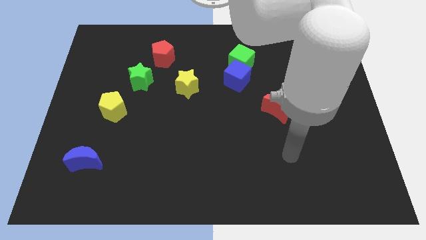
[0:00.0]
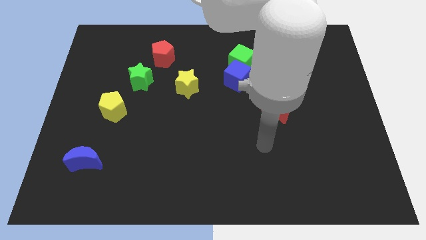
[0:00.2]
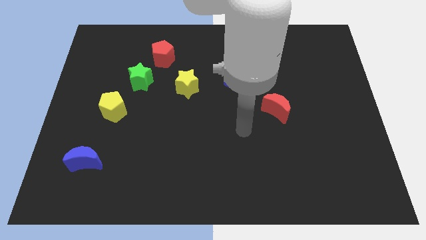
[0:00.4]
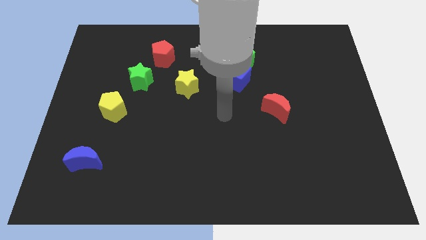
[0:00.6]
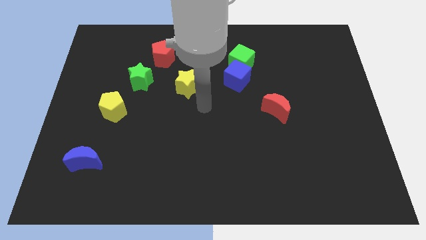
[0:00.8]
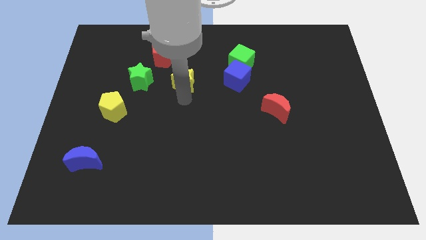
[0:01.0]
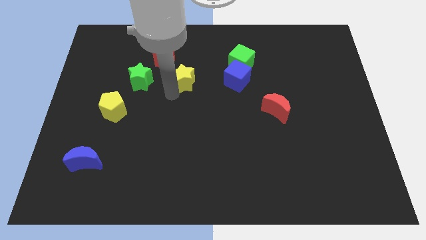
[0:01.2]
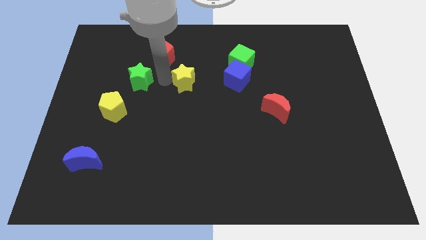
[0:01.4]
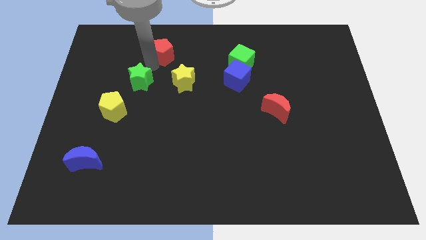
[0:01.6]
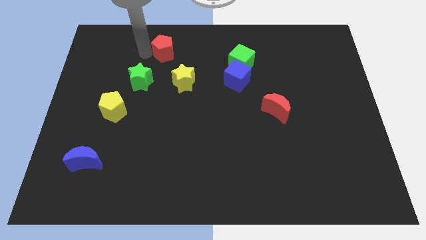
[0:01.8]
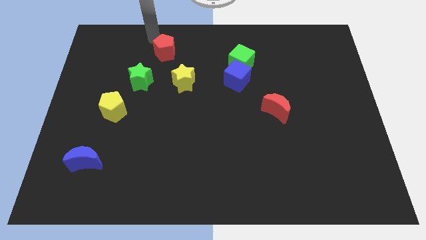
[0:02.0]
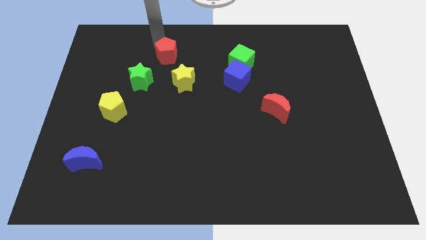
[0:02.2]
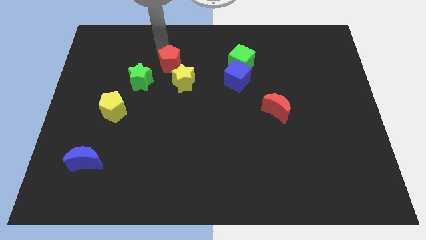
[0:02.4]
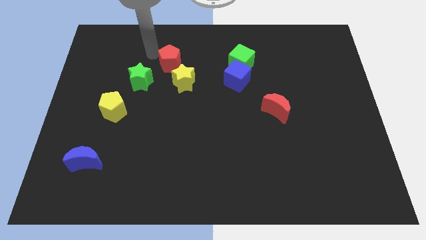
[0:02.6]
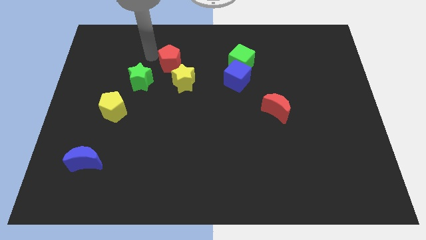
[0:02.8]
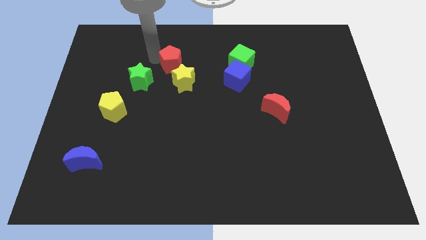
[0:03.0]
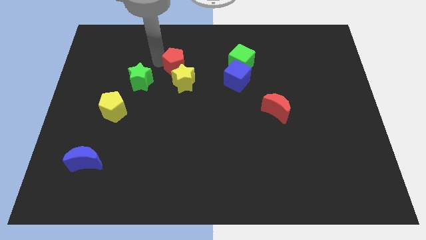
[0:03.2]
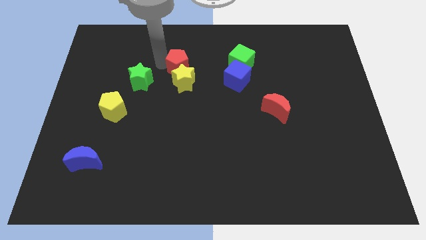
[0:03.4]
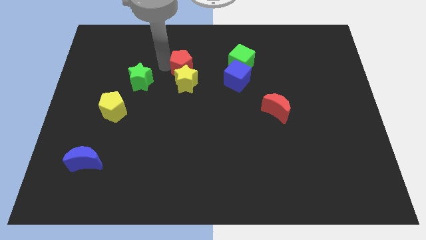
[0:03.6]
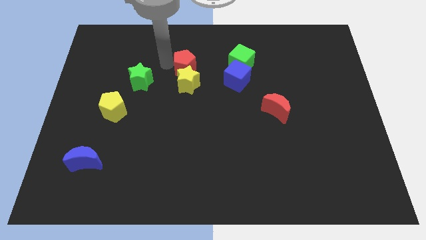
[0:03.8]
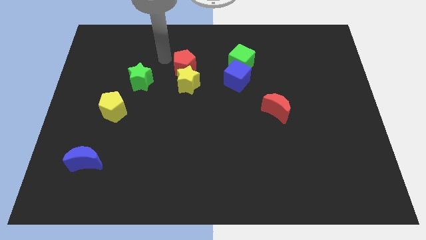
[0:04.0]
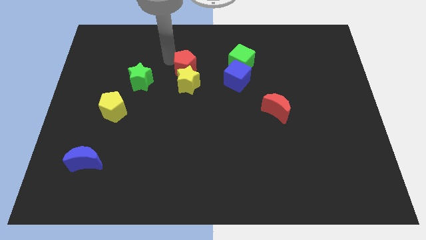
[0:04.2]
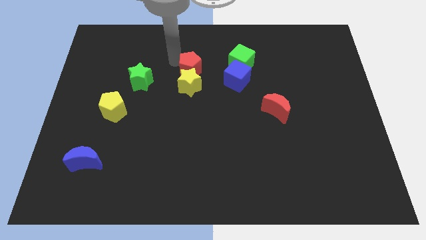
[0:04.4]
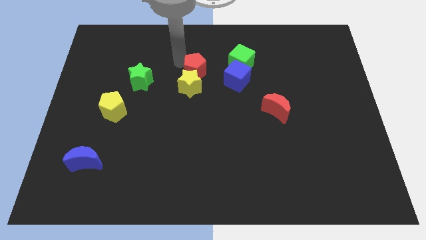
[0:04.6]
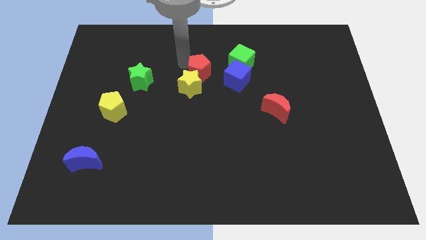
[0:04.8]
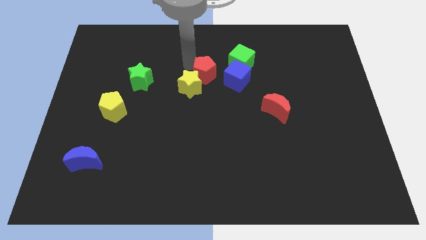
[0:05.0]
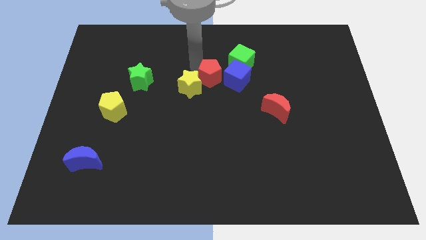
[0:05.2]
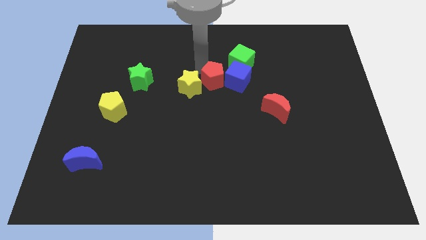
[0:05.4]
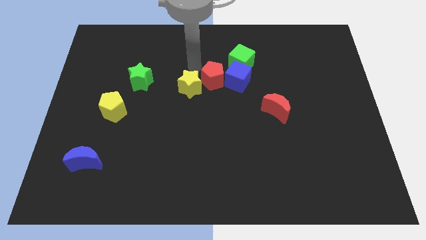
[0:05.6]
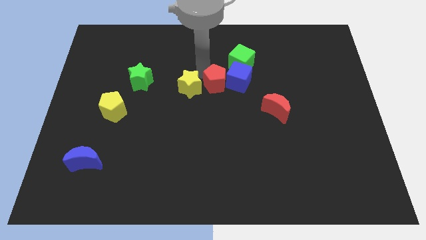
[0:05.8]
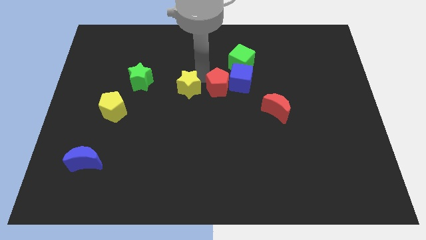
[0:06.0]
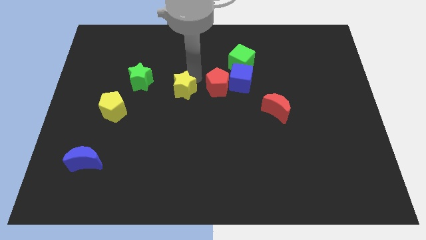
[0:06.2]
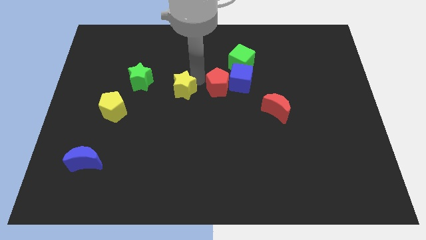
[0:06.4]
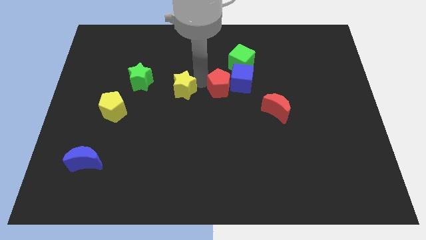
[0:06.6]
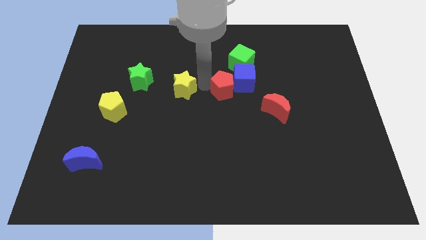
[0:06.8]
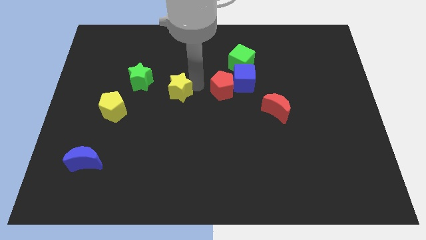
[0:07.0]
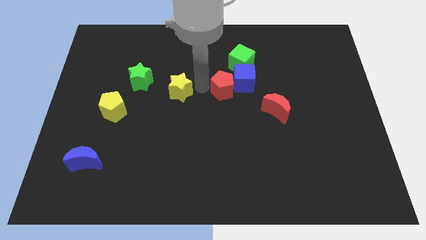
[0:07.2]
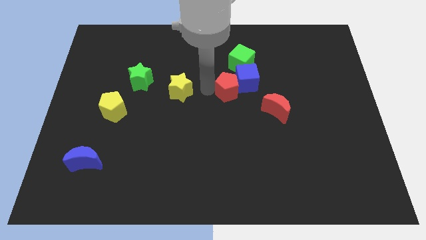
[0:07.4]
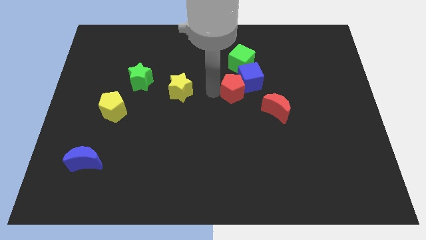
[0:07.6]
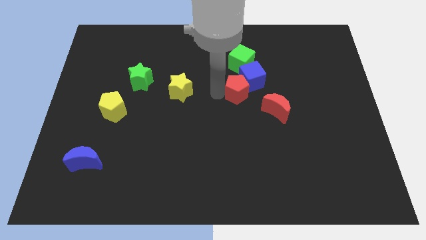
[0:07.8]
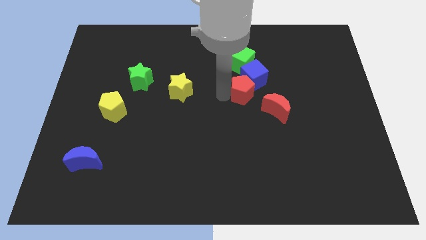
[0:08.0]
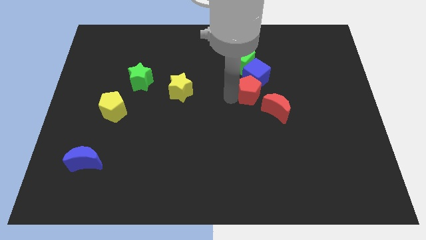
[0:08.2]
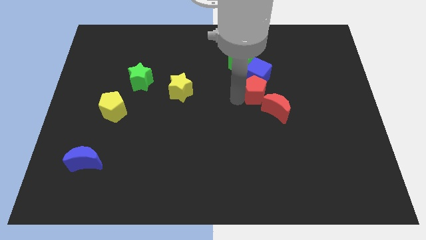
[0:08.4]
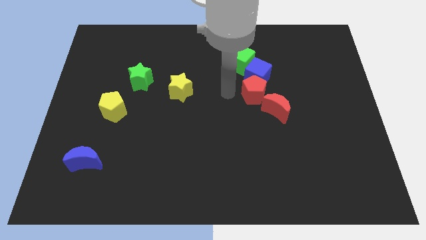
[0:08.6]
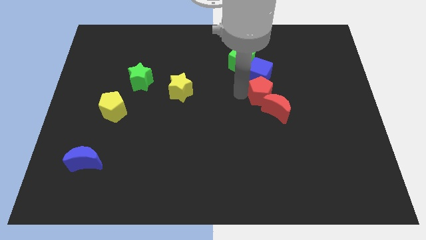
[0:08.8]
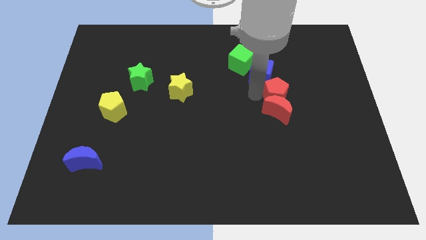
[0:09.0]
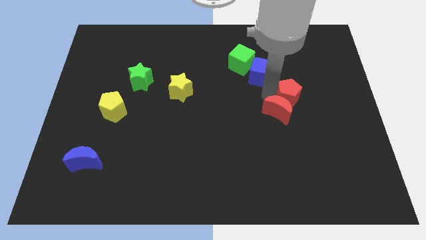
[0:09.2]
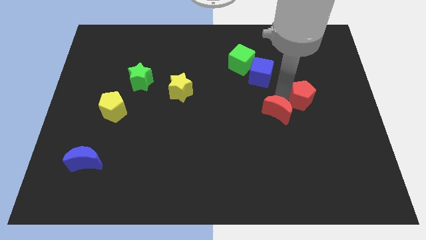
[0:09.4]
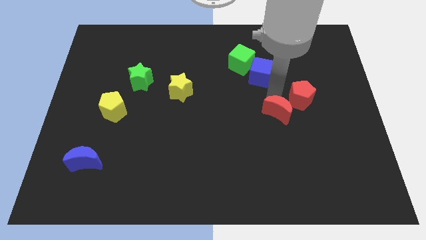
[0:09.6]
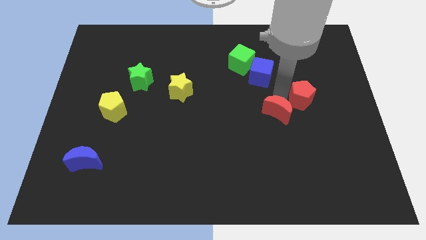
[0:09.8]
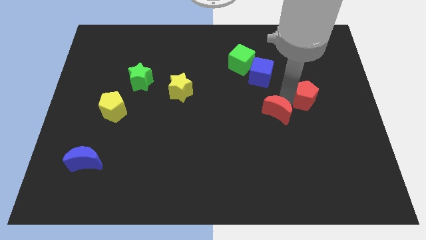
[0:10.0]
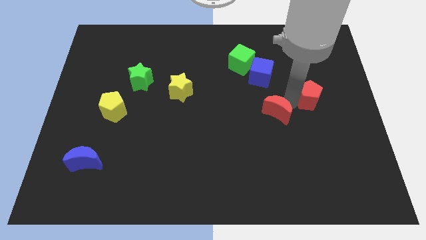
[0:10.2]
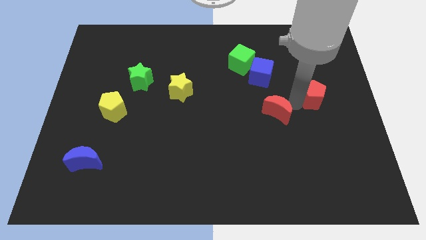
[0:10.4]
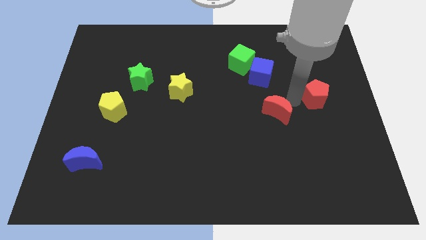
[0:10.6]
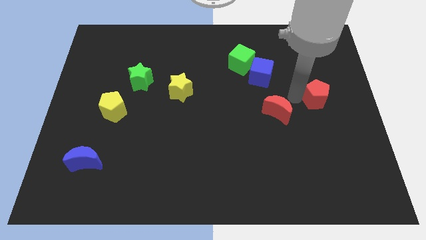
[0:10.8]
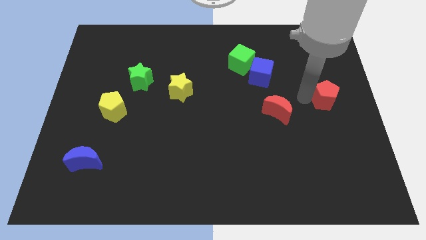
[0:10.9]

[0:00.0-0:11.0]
move the red pentagon to the center right
